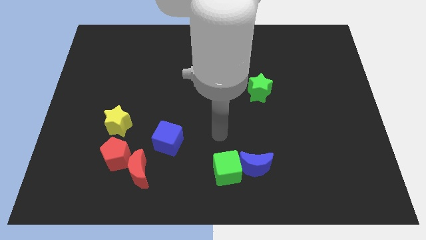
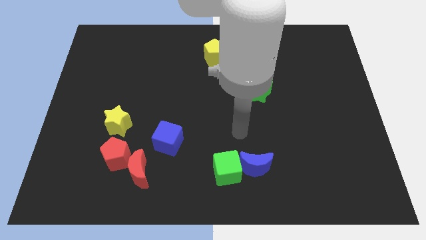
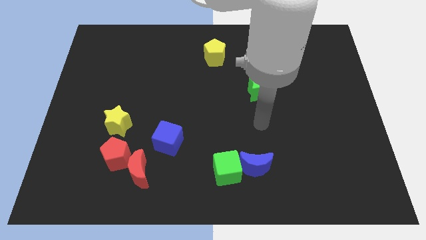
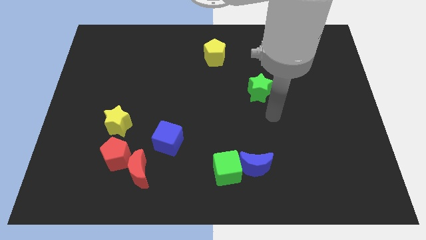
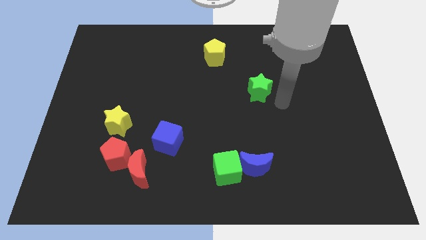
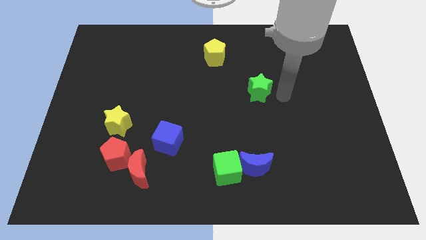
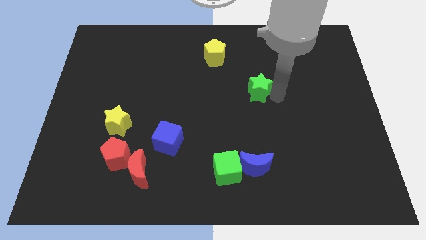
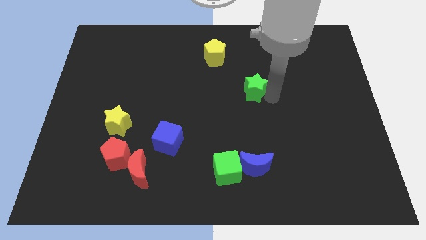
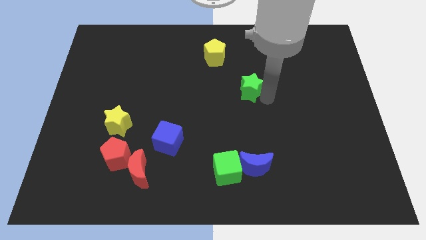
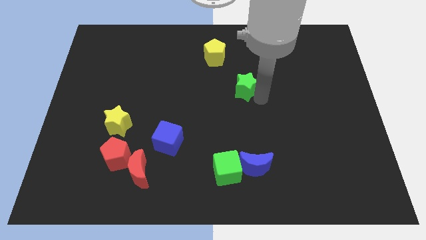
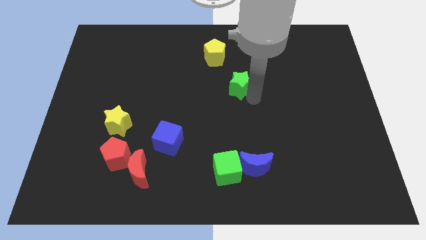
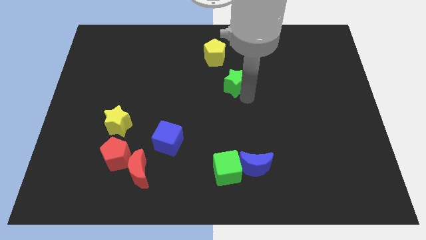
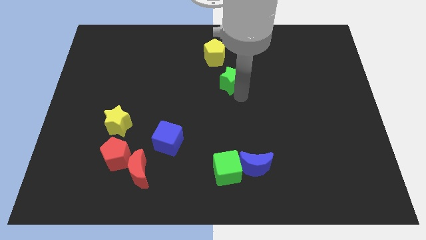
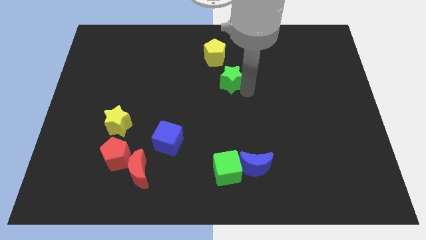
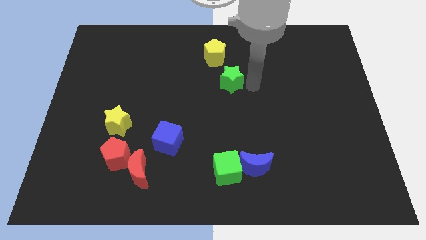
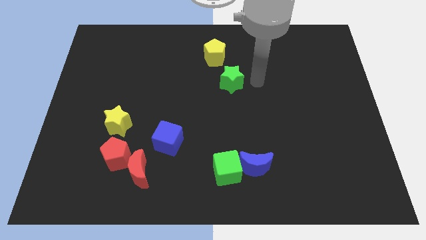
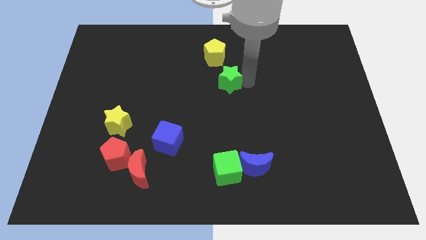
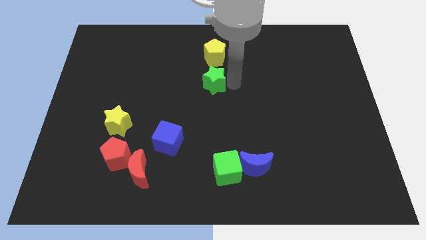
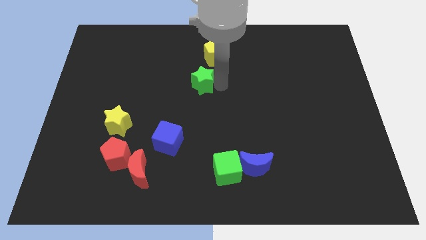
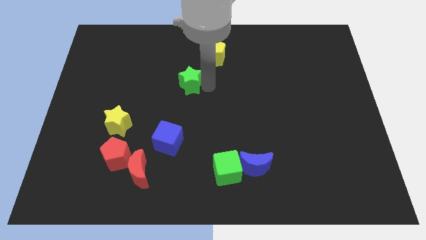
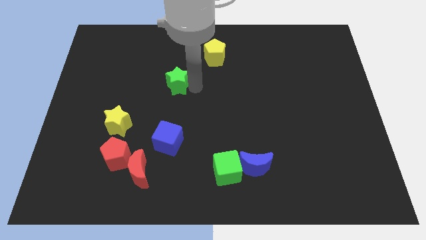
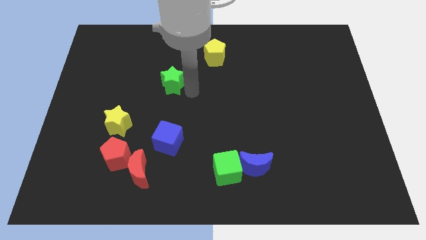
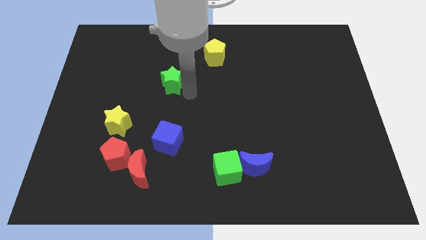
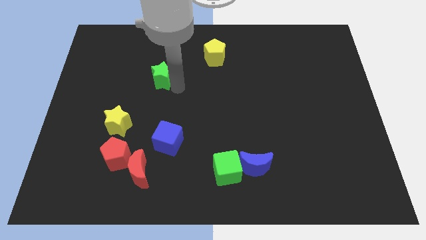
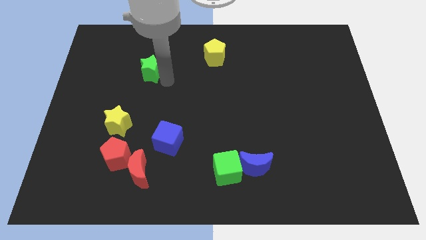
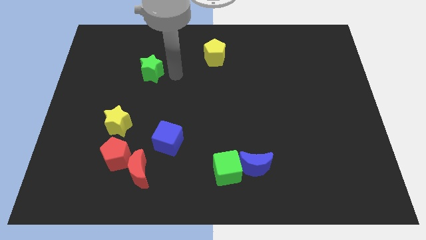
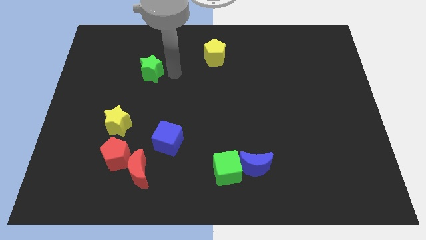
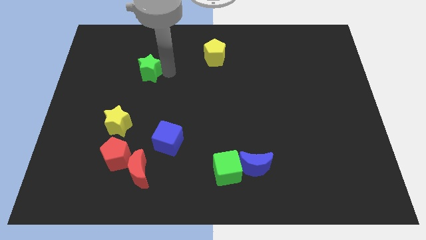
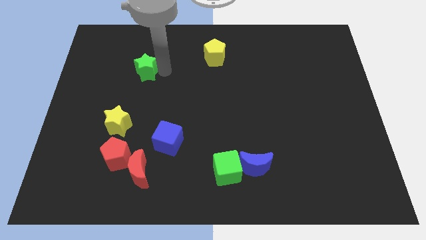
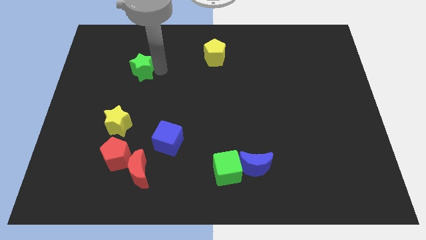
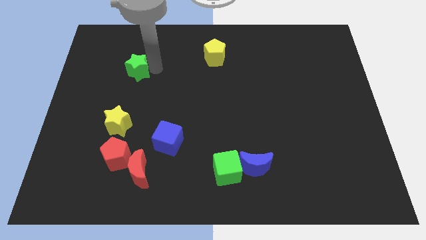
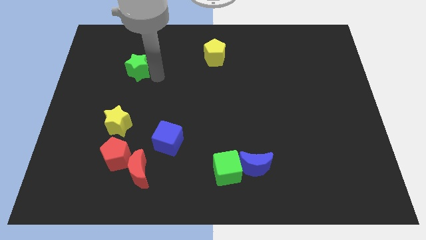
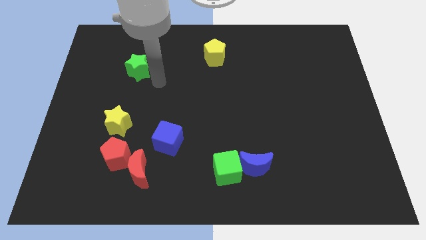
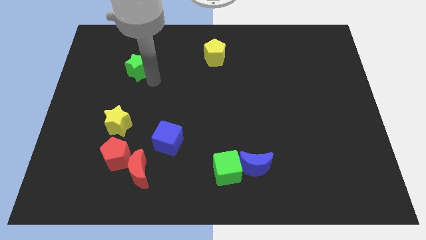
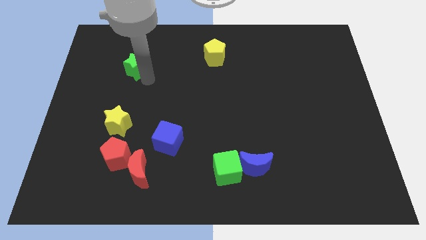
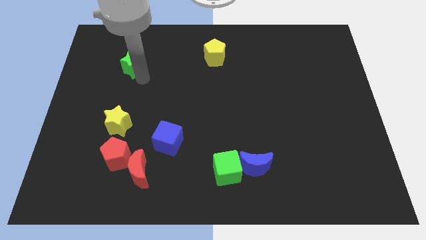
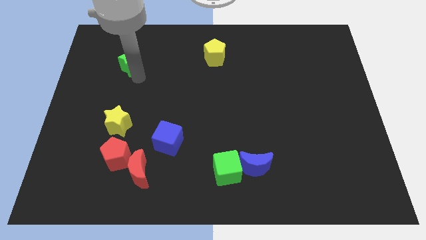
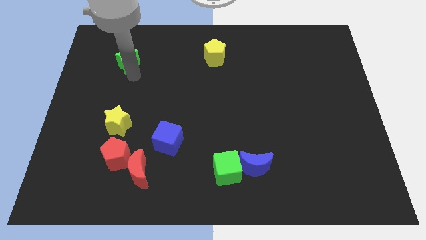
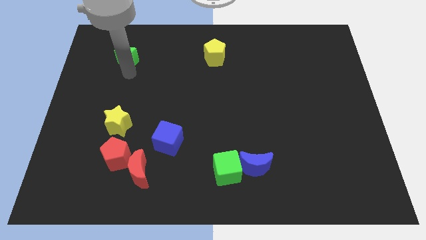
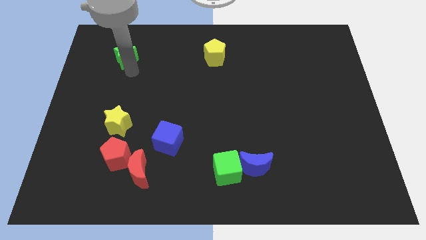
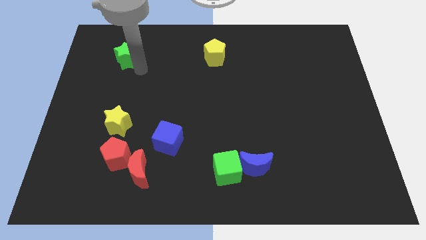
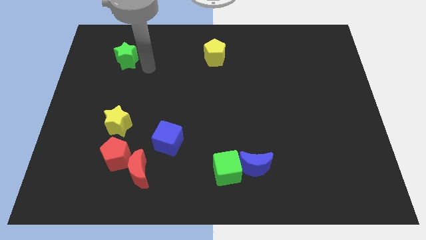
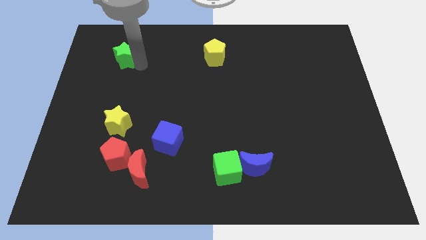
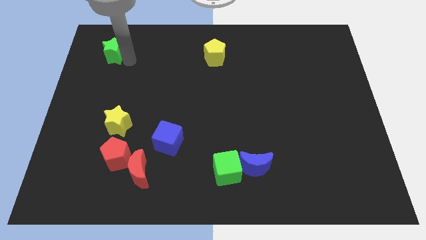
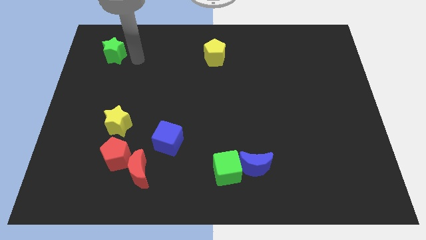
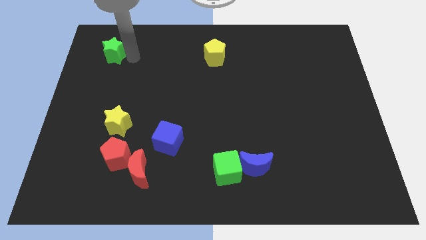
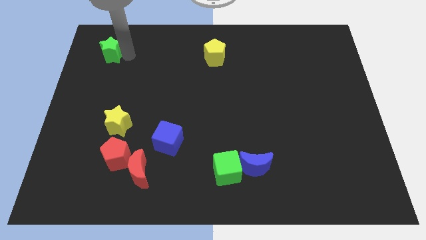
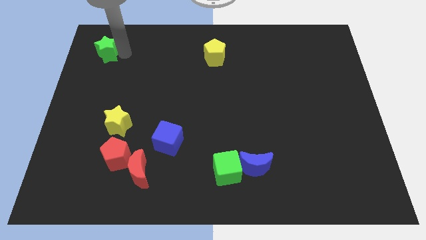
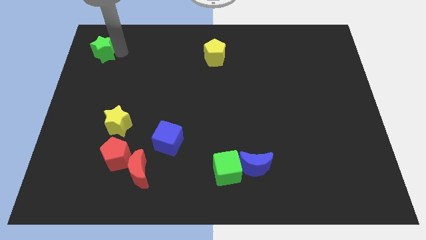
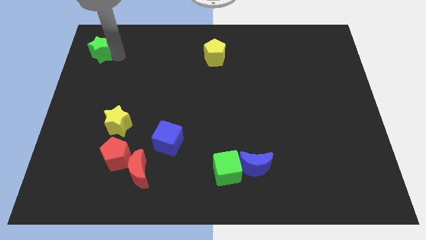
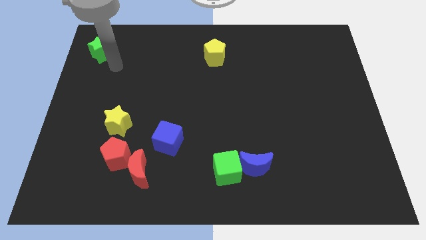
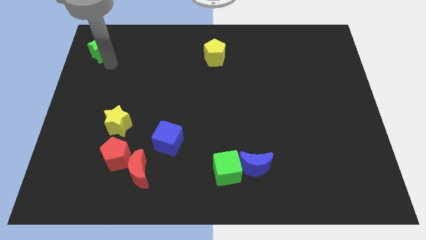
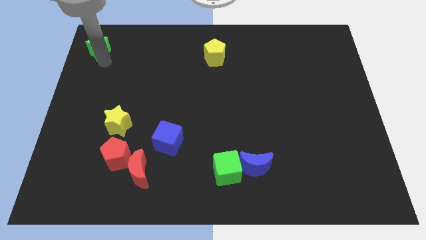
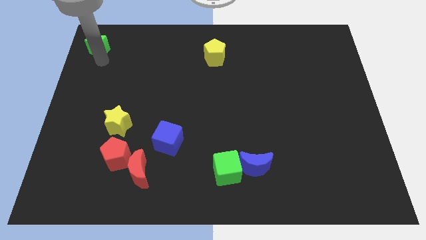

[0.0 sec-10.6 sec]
move the green star to the upper left corner
